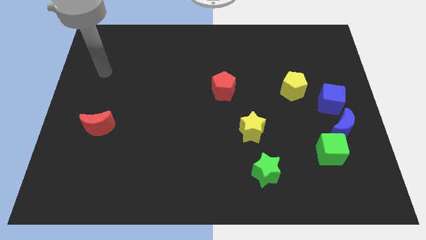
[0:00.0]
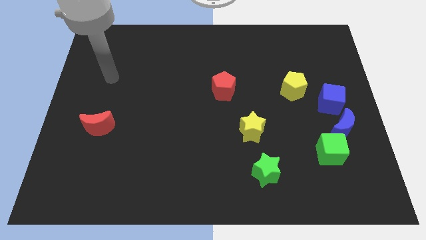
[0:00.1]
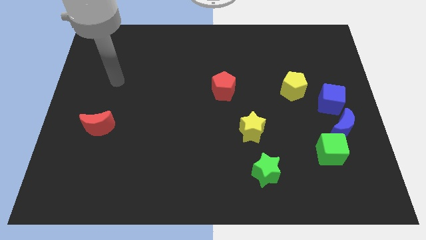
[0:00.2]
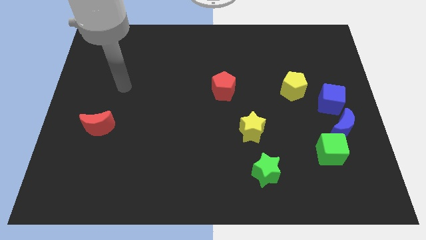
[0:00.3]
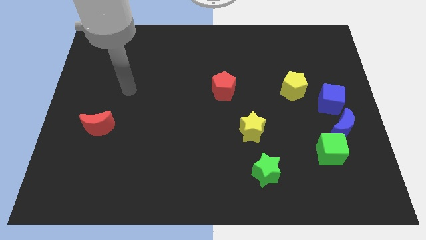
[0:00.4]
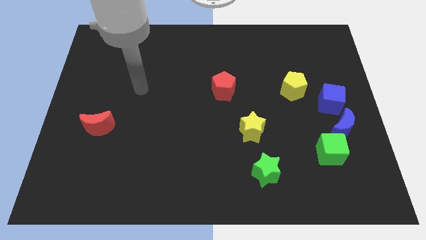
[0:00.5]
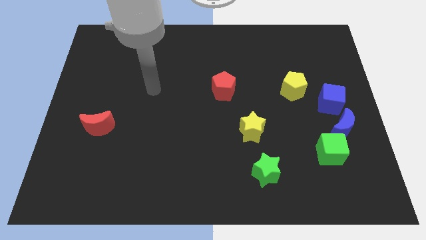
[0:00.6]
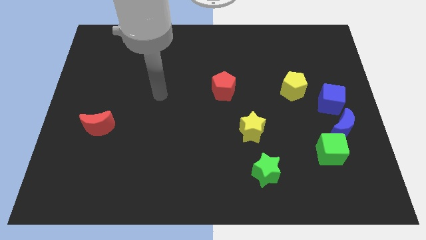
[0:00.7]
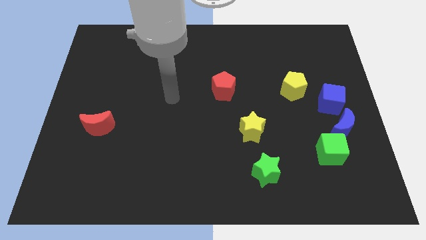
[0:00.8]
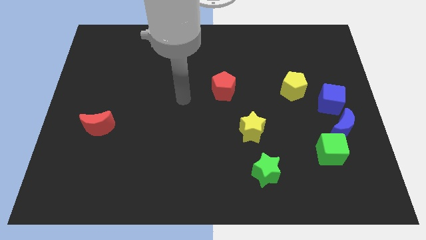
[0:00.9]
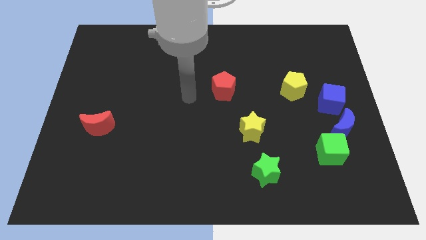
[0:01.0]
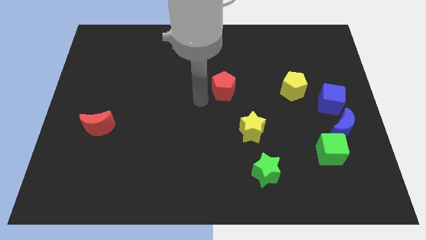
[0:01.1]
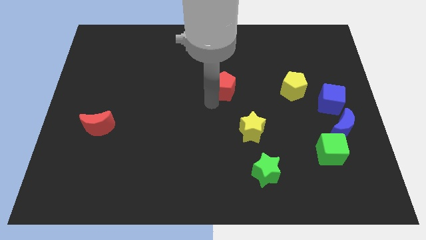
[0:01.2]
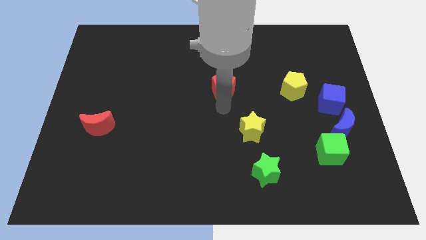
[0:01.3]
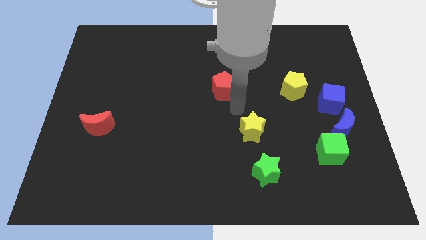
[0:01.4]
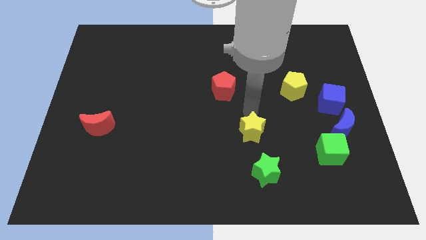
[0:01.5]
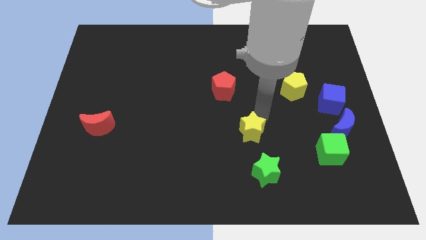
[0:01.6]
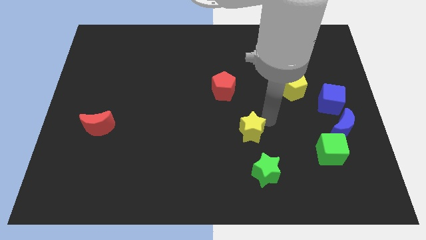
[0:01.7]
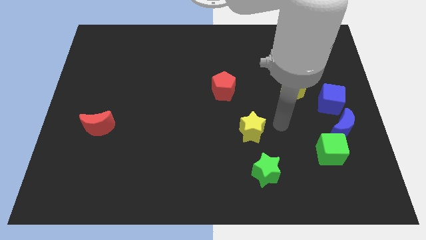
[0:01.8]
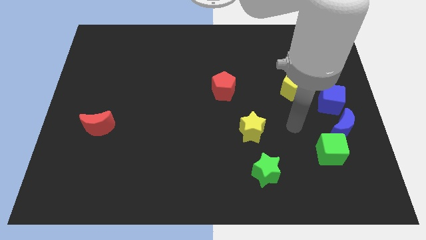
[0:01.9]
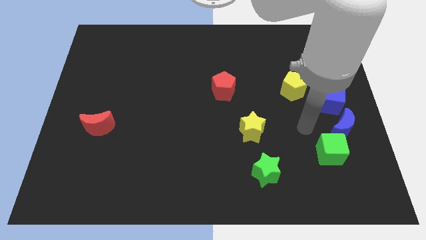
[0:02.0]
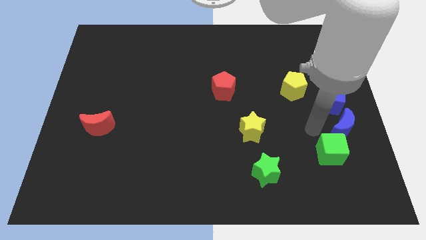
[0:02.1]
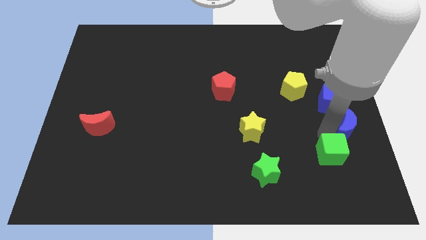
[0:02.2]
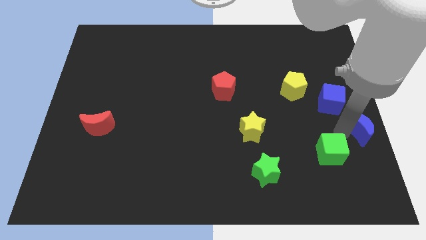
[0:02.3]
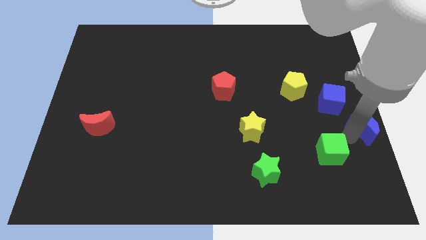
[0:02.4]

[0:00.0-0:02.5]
separate the green cube from the blue moon

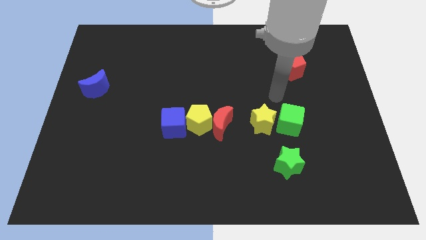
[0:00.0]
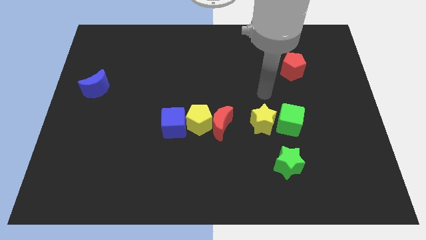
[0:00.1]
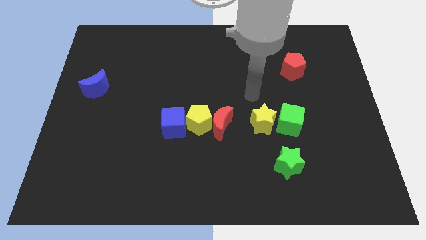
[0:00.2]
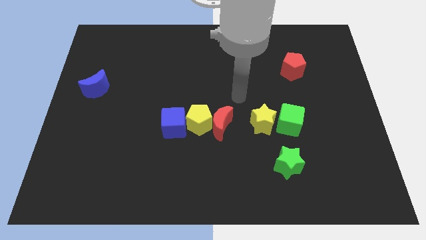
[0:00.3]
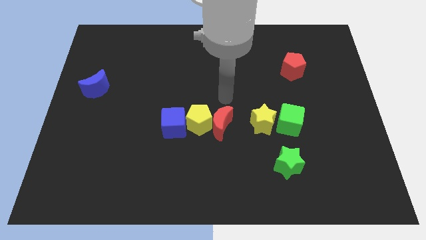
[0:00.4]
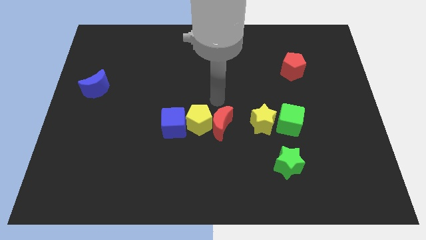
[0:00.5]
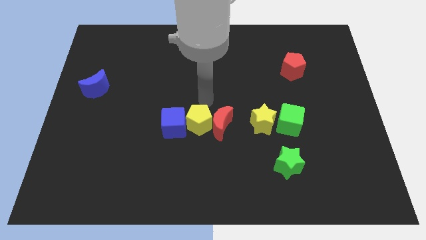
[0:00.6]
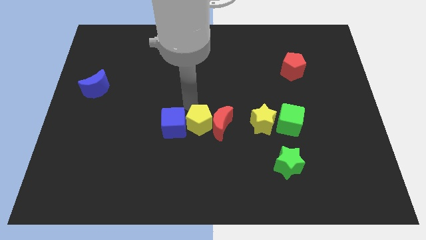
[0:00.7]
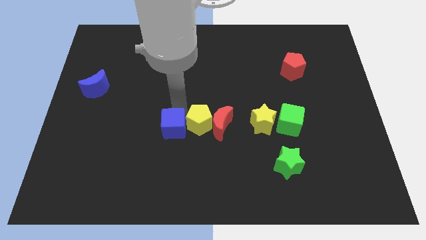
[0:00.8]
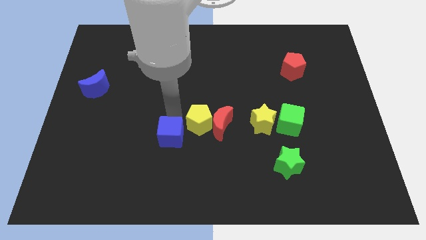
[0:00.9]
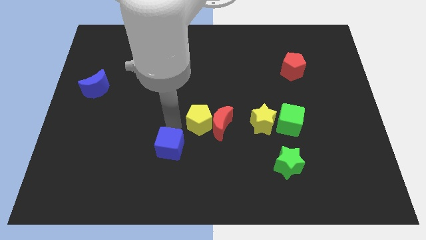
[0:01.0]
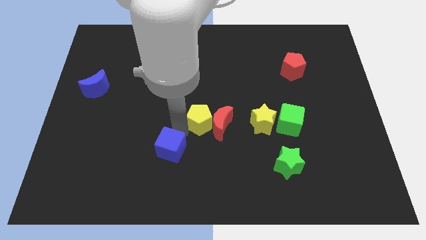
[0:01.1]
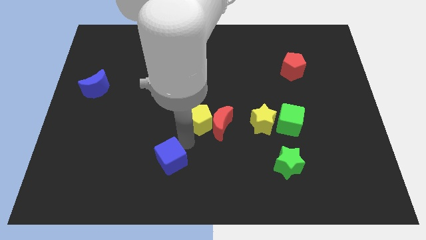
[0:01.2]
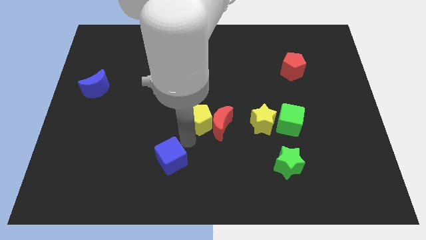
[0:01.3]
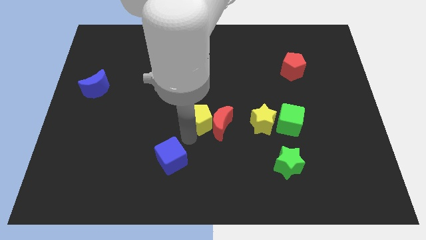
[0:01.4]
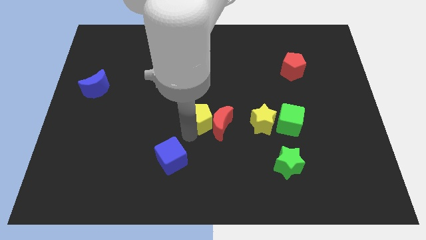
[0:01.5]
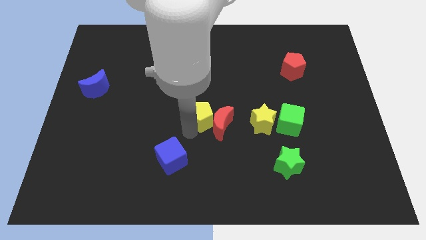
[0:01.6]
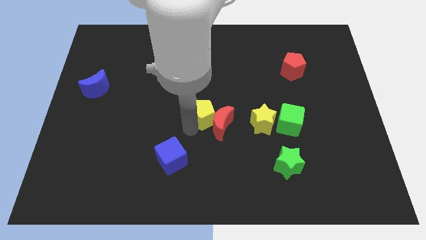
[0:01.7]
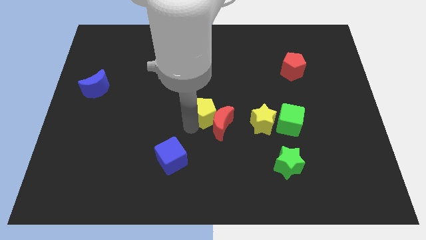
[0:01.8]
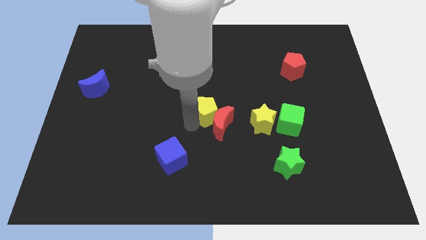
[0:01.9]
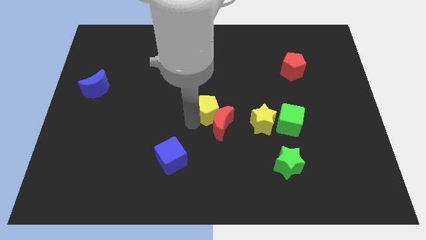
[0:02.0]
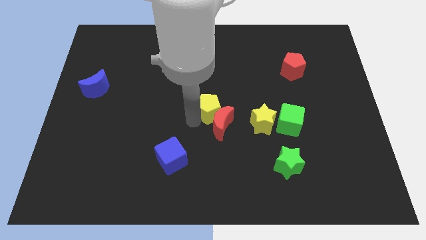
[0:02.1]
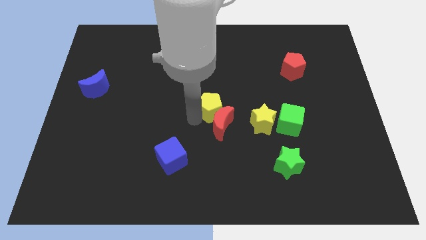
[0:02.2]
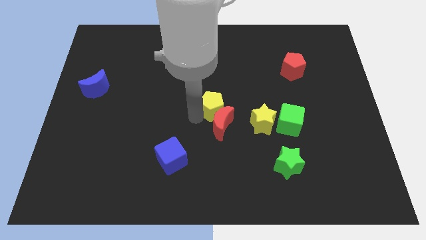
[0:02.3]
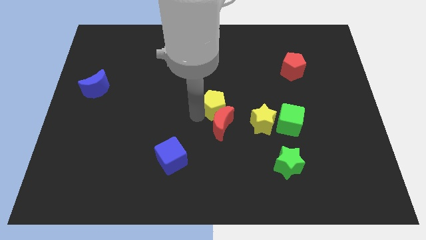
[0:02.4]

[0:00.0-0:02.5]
separate the yellow pentagon from the red moon and blue cube

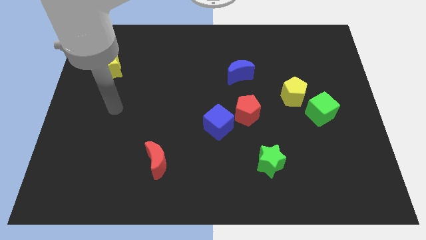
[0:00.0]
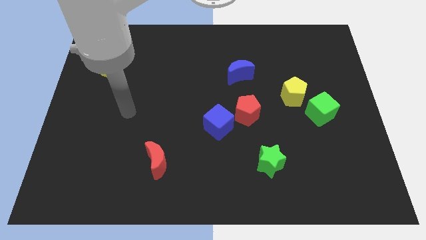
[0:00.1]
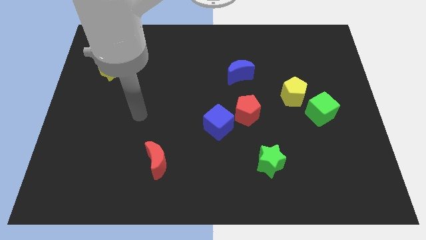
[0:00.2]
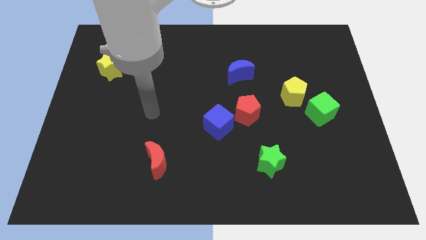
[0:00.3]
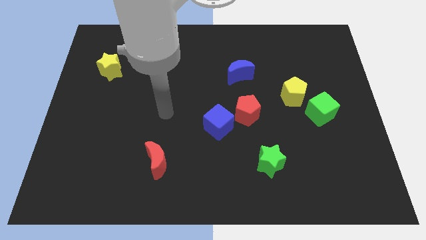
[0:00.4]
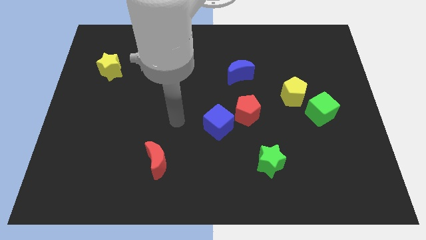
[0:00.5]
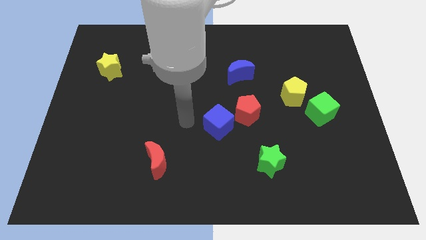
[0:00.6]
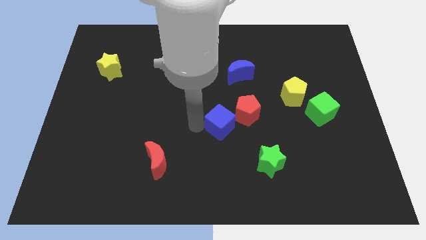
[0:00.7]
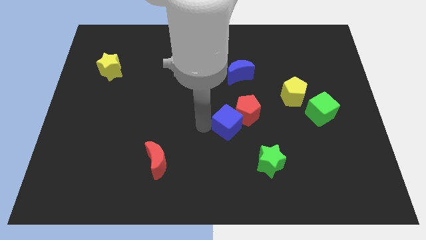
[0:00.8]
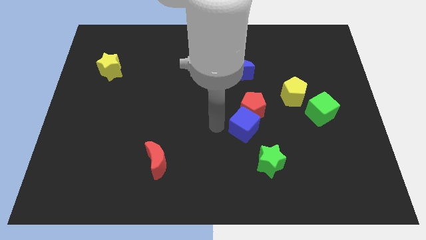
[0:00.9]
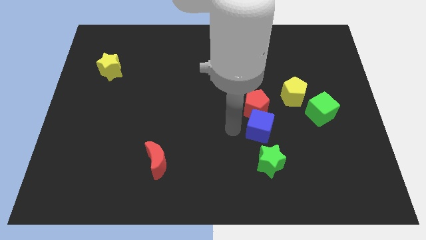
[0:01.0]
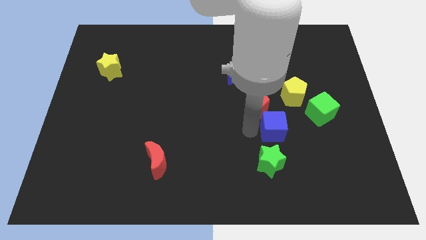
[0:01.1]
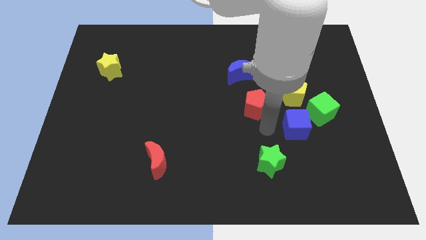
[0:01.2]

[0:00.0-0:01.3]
pull the red pentagon apart from the blue cube

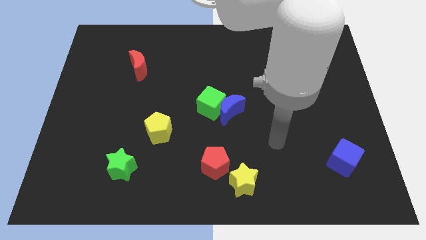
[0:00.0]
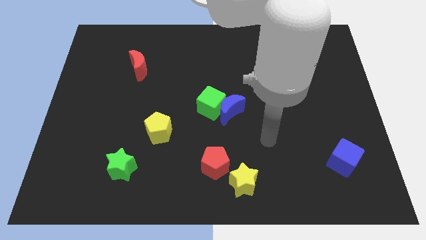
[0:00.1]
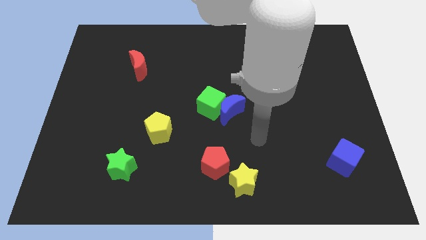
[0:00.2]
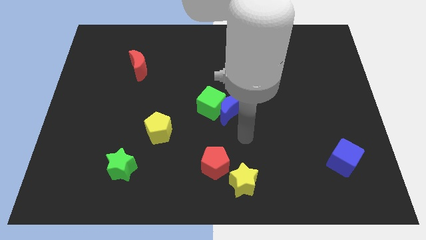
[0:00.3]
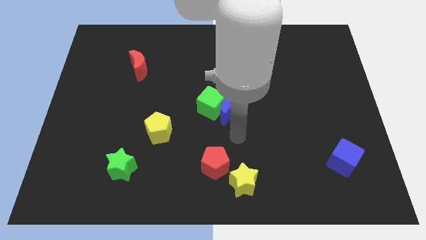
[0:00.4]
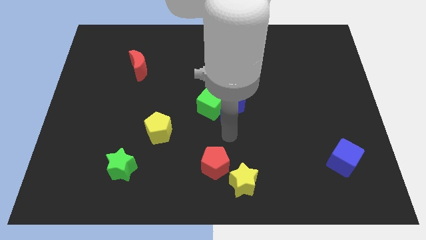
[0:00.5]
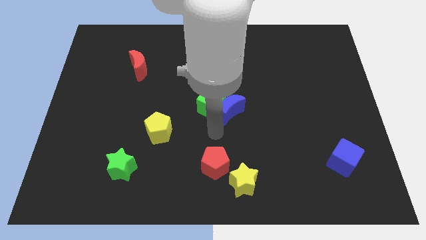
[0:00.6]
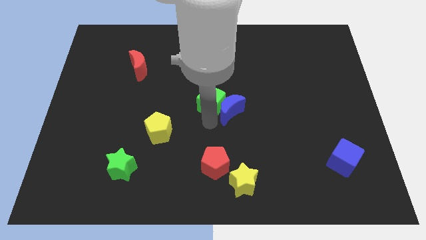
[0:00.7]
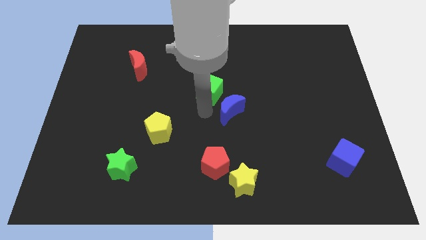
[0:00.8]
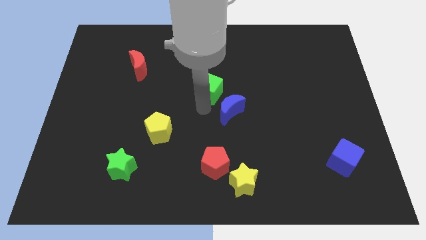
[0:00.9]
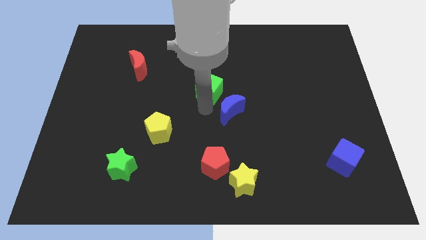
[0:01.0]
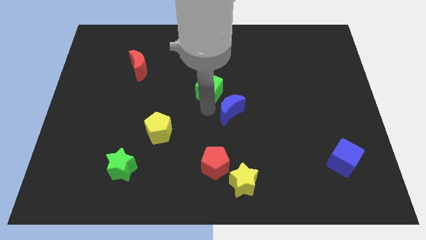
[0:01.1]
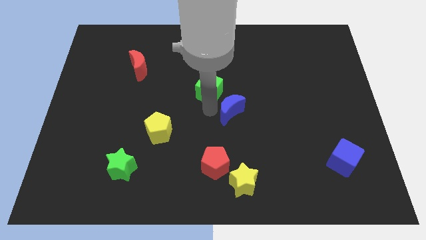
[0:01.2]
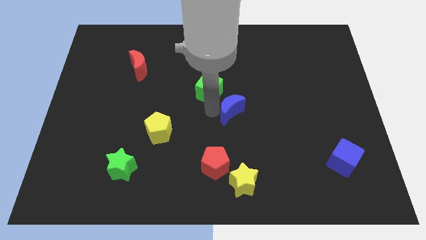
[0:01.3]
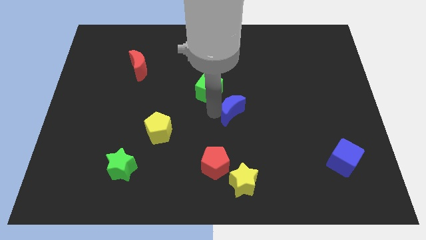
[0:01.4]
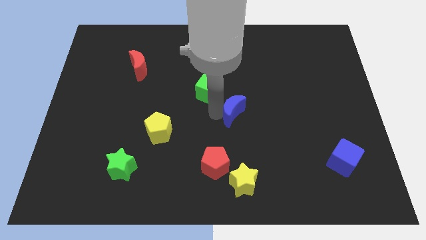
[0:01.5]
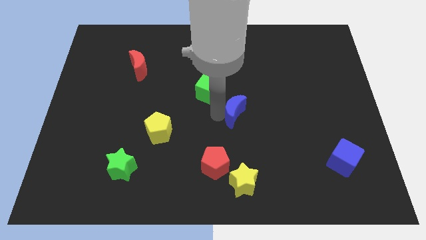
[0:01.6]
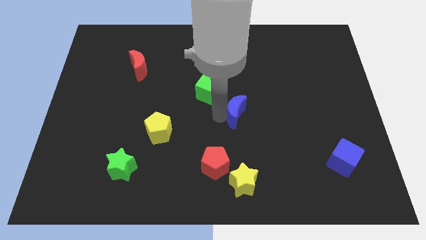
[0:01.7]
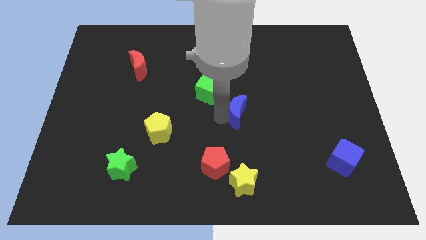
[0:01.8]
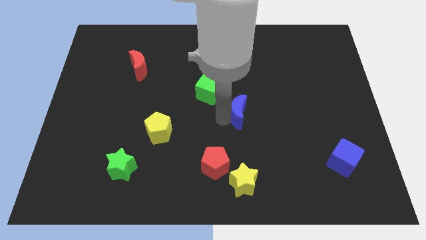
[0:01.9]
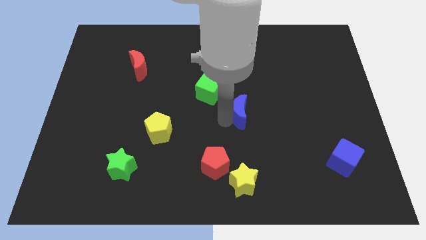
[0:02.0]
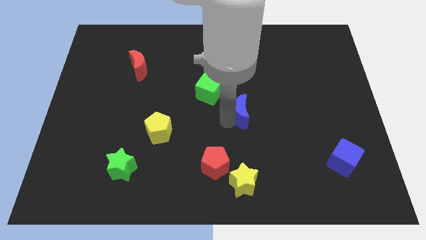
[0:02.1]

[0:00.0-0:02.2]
move the blue moon away from the green cube

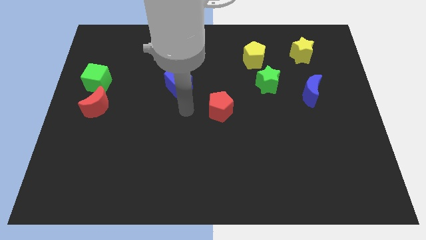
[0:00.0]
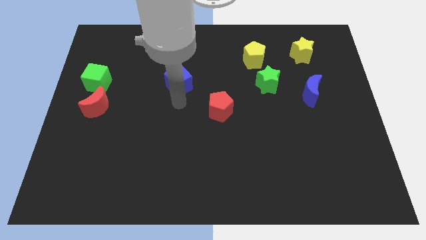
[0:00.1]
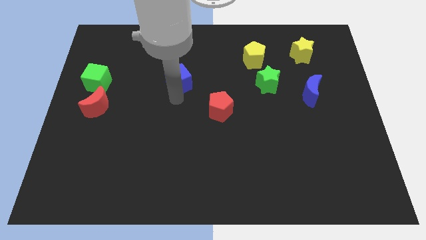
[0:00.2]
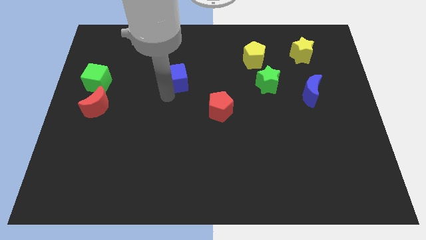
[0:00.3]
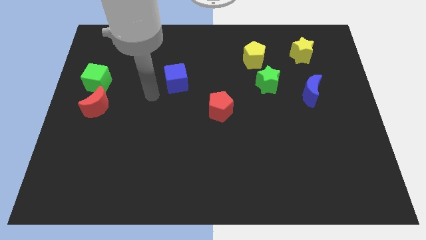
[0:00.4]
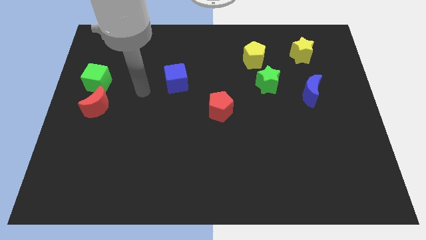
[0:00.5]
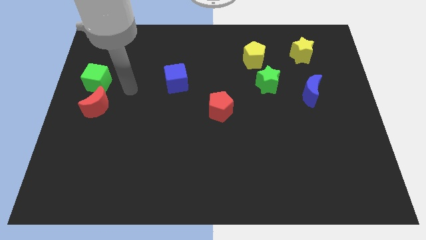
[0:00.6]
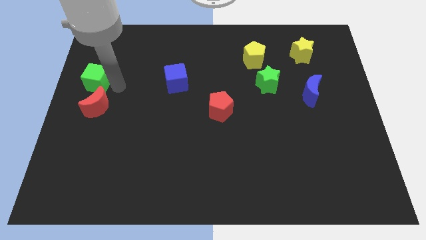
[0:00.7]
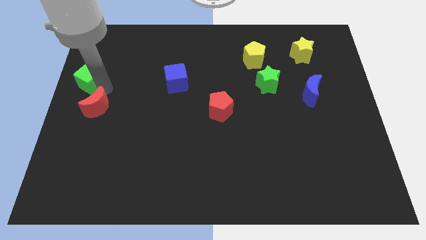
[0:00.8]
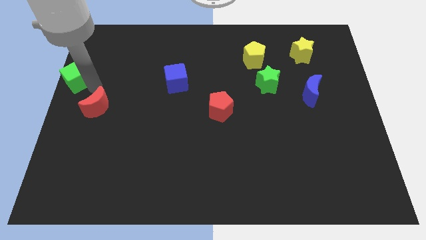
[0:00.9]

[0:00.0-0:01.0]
separate the red moon from the green cube
